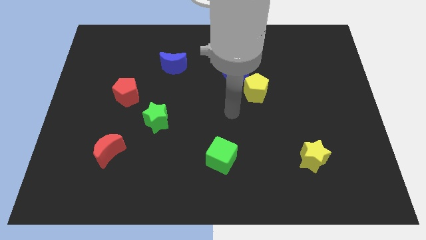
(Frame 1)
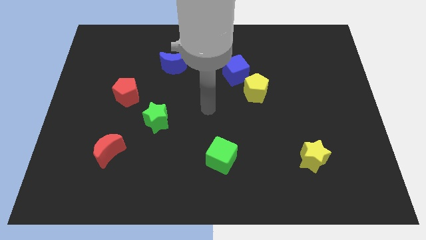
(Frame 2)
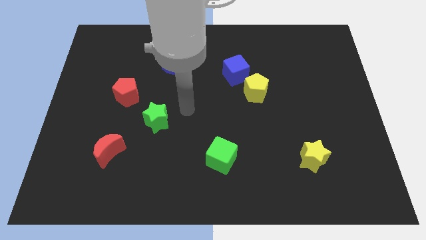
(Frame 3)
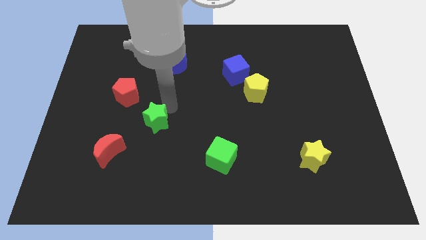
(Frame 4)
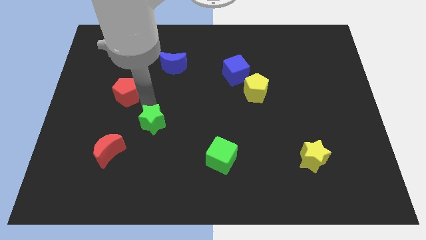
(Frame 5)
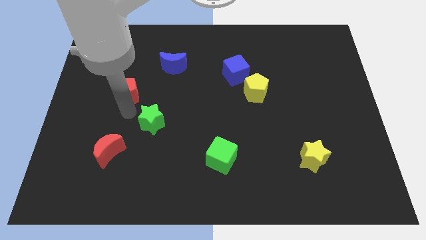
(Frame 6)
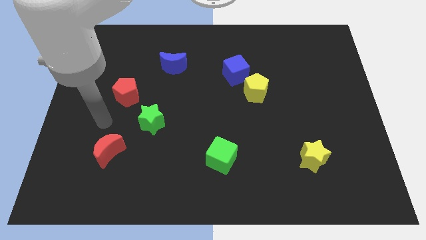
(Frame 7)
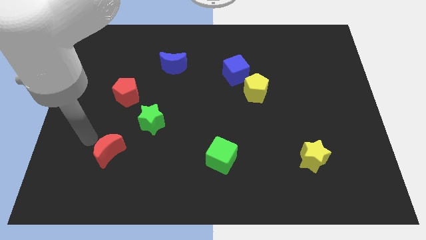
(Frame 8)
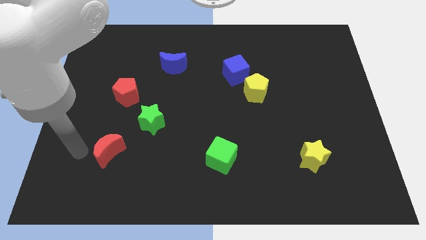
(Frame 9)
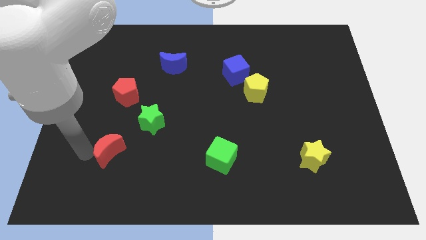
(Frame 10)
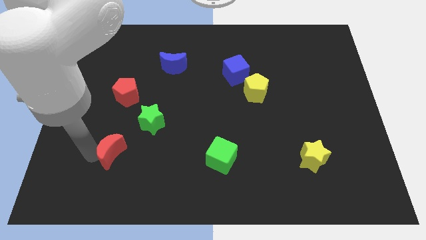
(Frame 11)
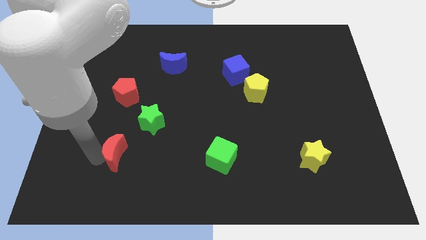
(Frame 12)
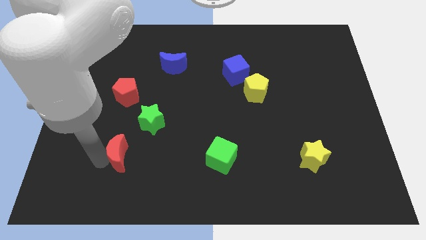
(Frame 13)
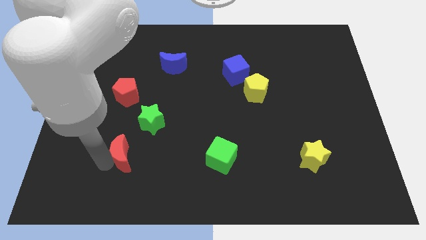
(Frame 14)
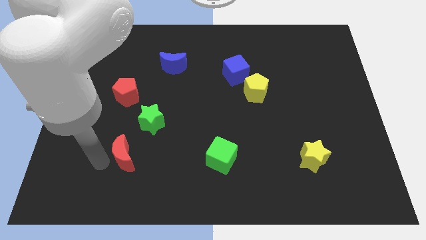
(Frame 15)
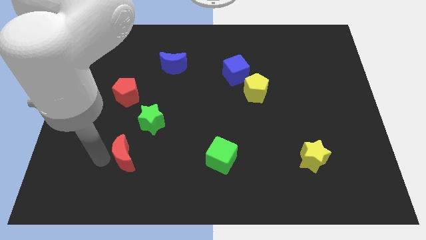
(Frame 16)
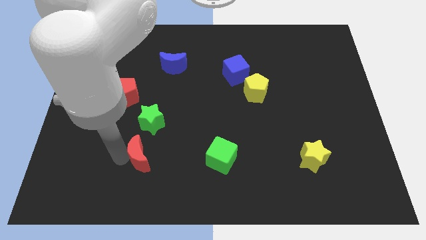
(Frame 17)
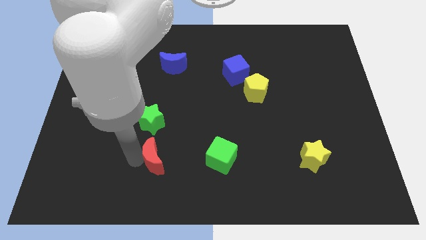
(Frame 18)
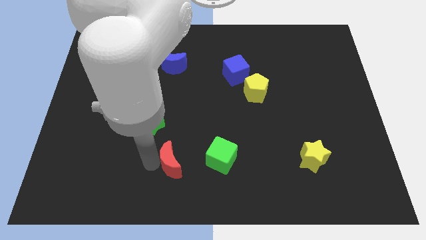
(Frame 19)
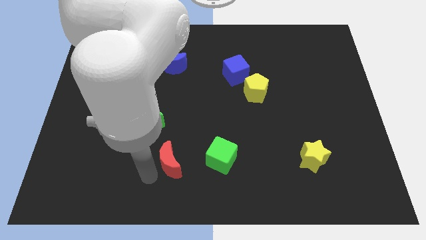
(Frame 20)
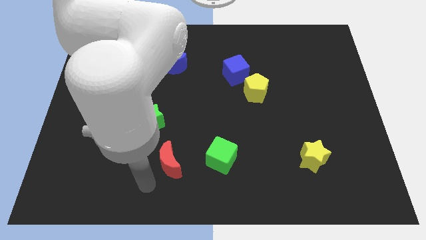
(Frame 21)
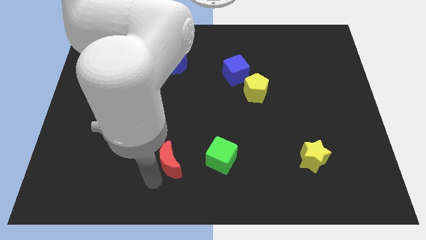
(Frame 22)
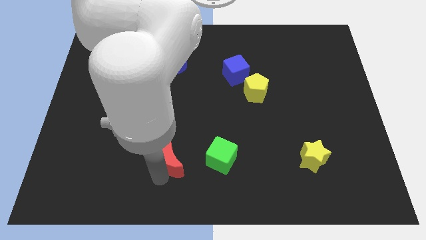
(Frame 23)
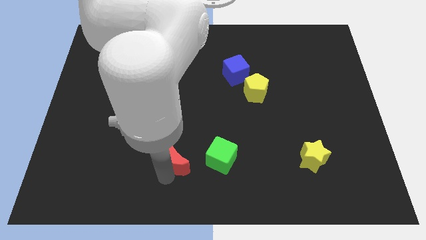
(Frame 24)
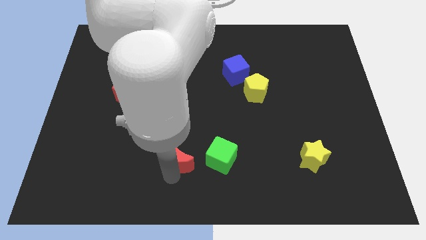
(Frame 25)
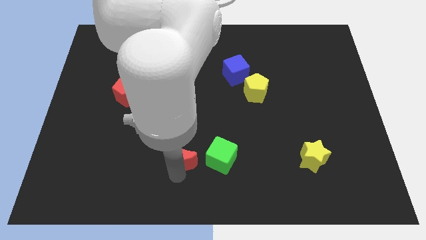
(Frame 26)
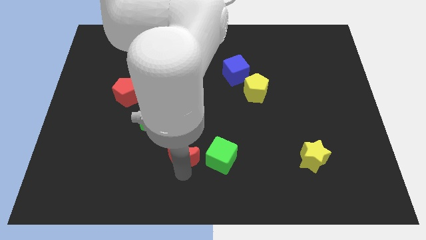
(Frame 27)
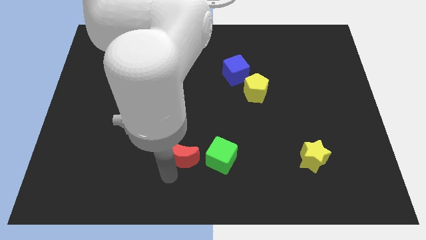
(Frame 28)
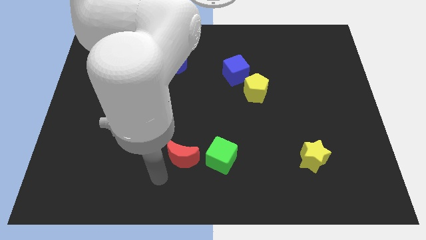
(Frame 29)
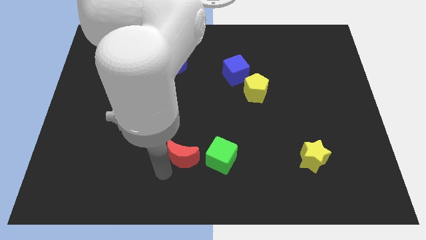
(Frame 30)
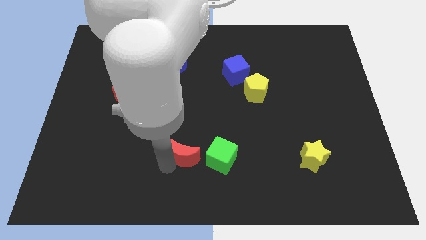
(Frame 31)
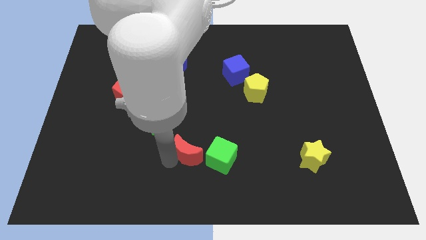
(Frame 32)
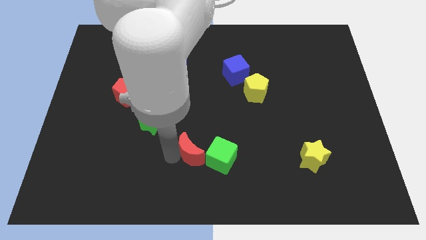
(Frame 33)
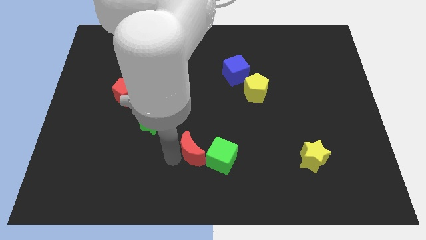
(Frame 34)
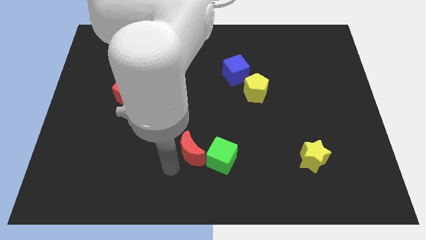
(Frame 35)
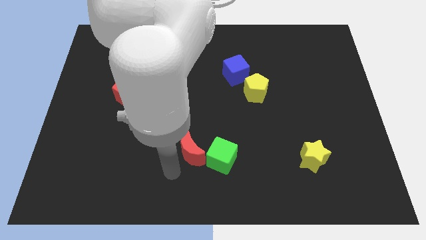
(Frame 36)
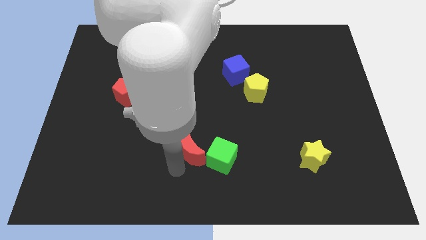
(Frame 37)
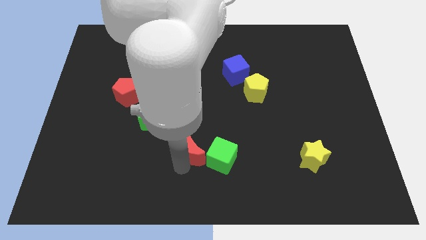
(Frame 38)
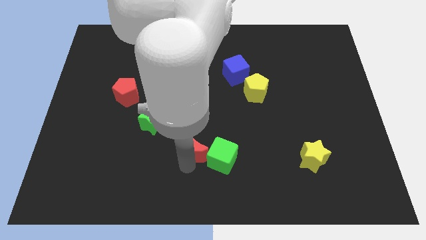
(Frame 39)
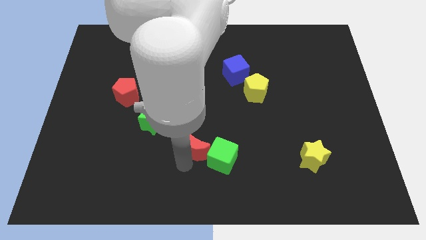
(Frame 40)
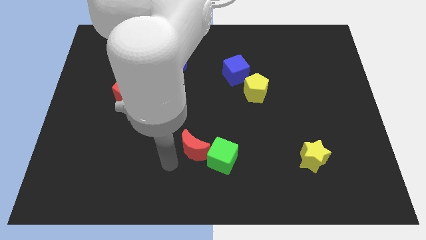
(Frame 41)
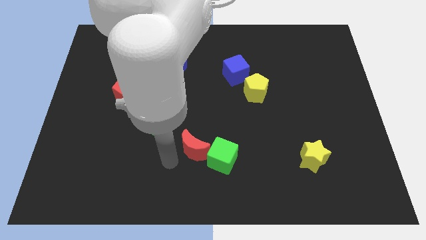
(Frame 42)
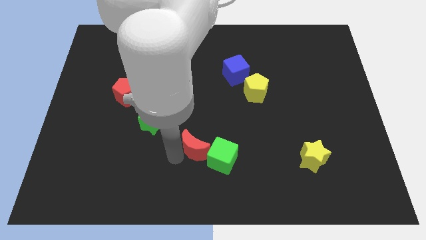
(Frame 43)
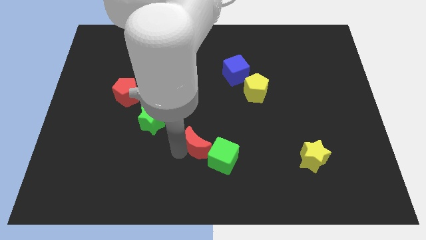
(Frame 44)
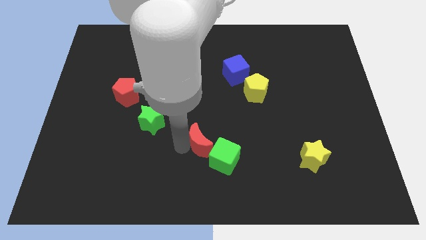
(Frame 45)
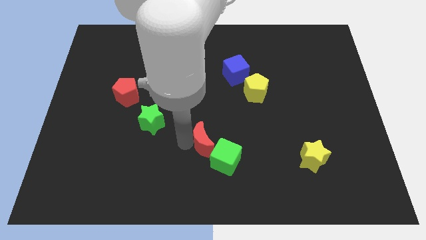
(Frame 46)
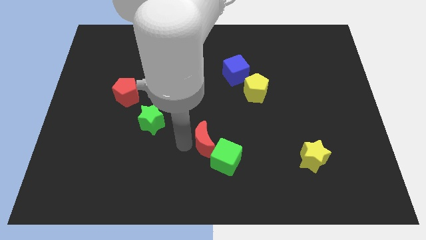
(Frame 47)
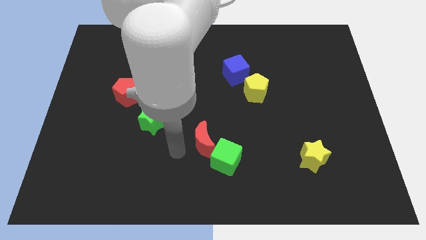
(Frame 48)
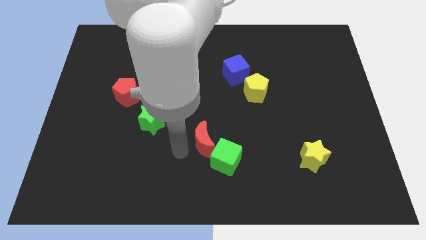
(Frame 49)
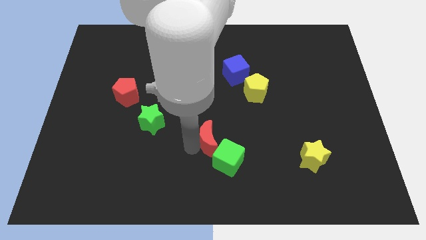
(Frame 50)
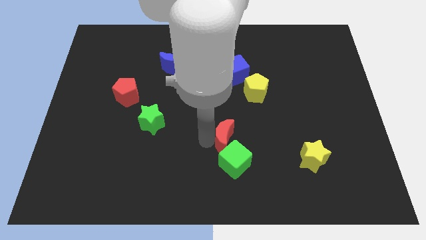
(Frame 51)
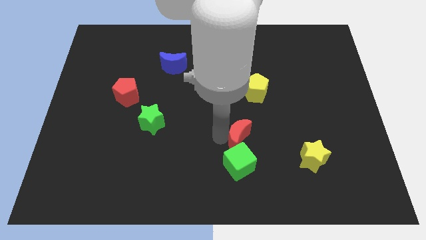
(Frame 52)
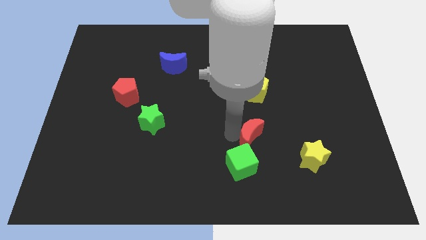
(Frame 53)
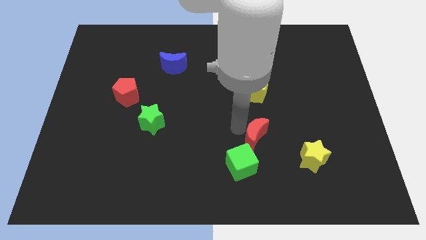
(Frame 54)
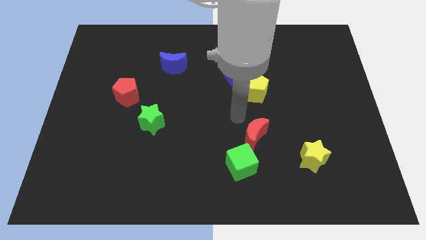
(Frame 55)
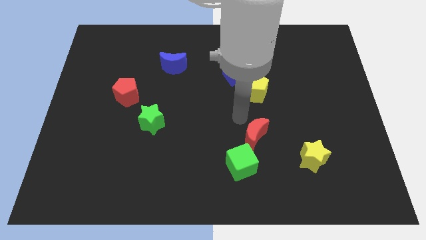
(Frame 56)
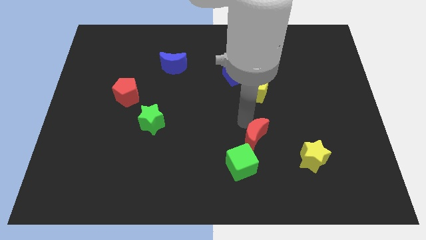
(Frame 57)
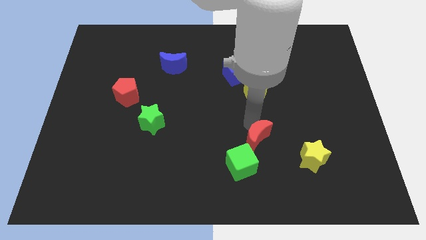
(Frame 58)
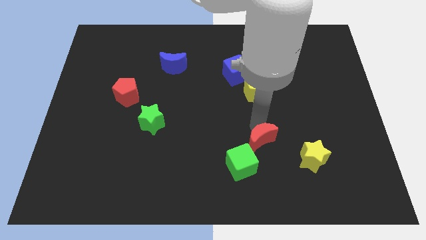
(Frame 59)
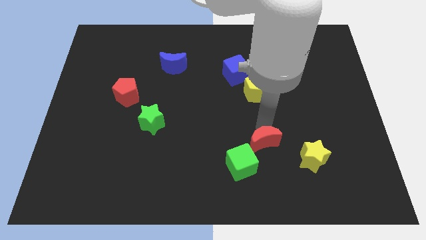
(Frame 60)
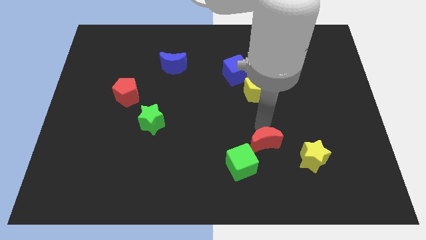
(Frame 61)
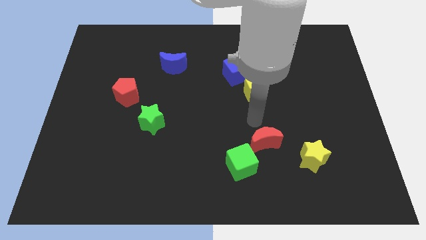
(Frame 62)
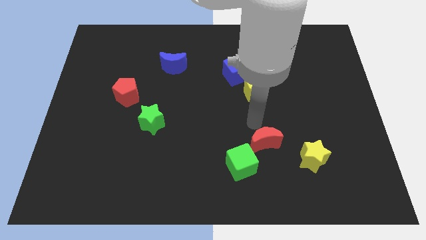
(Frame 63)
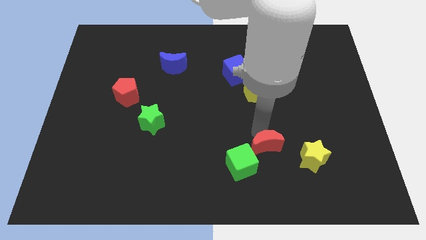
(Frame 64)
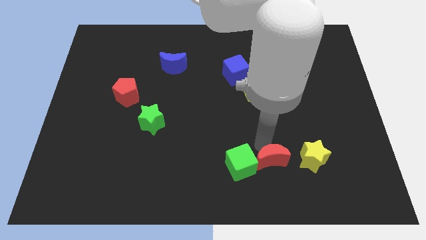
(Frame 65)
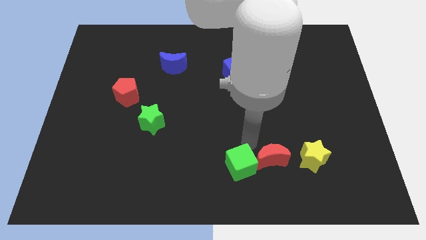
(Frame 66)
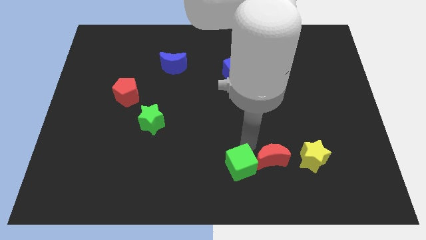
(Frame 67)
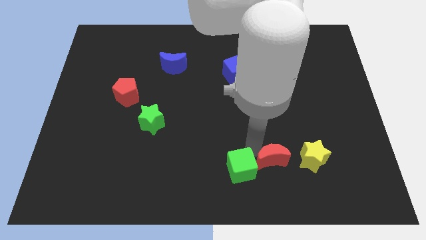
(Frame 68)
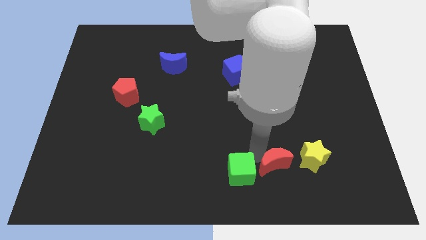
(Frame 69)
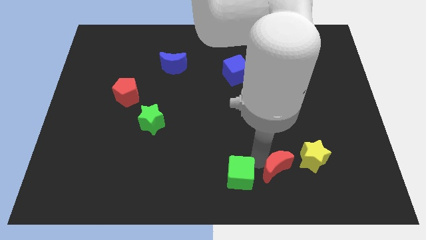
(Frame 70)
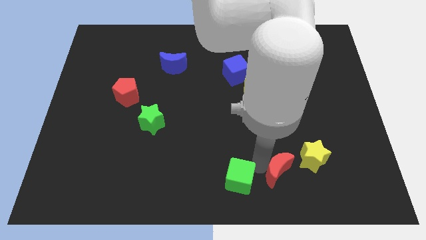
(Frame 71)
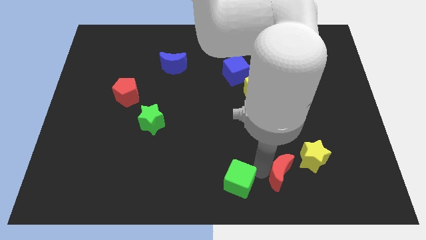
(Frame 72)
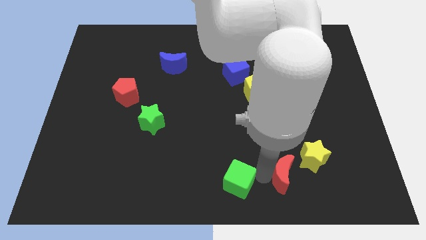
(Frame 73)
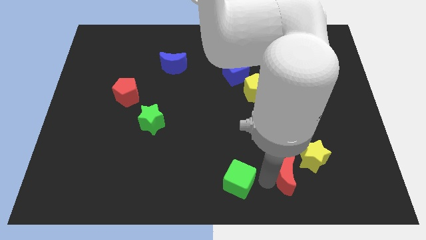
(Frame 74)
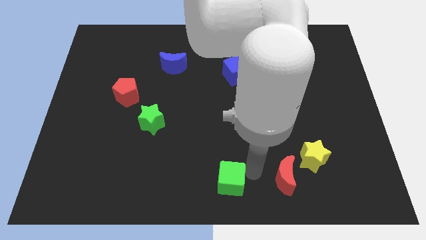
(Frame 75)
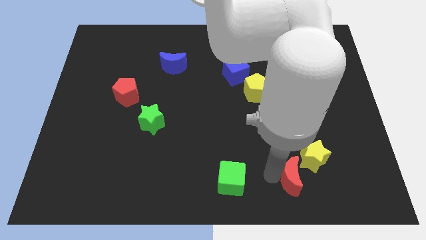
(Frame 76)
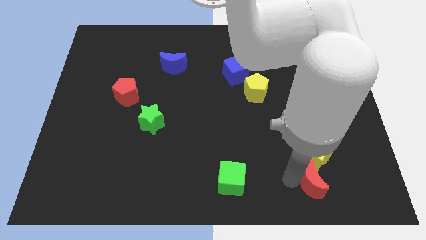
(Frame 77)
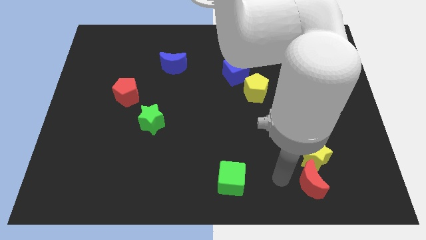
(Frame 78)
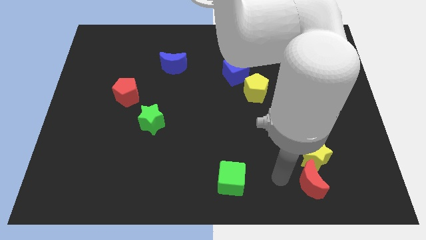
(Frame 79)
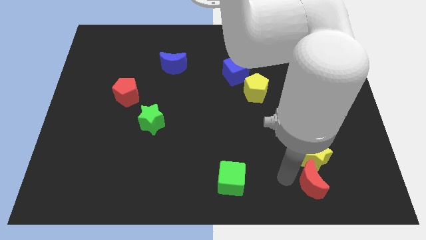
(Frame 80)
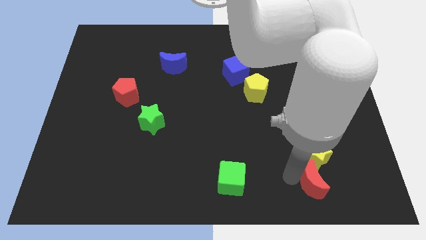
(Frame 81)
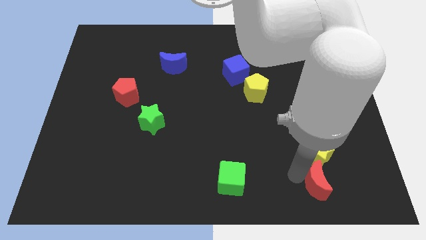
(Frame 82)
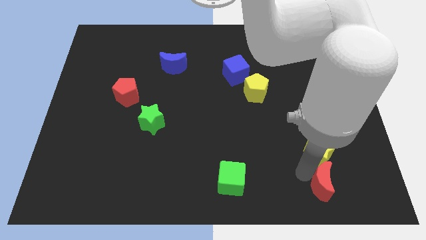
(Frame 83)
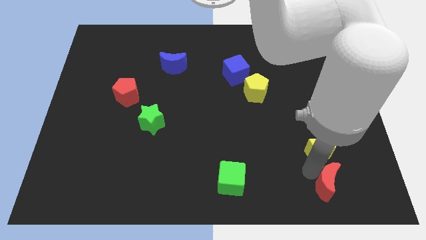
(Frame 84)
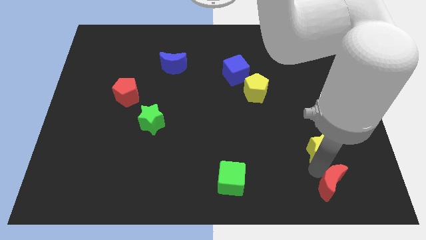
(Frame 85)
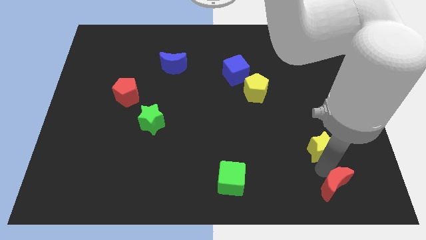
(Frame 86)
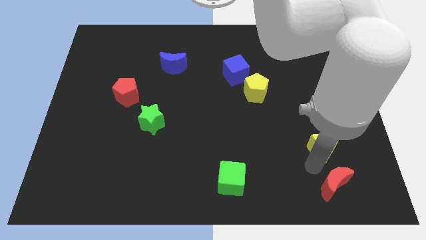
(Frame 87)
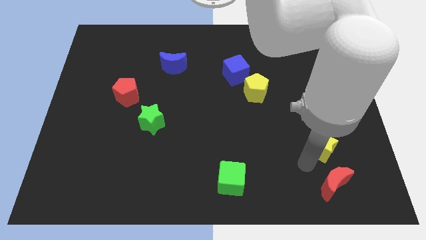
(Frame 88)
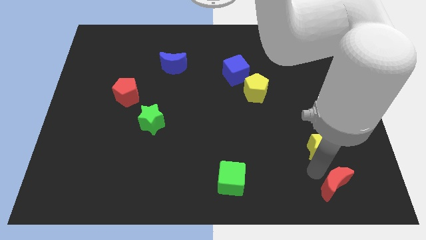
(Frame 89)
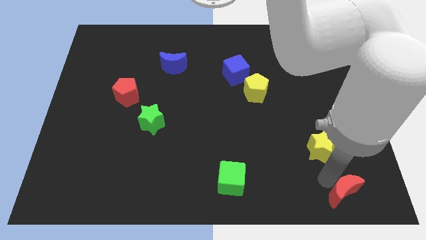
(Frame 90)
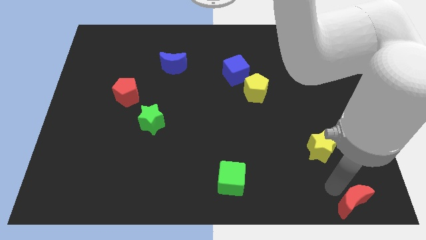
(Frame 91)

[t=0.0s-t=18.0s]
put the red moon to the bottom right of the board
